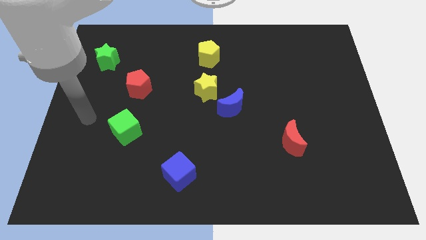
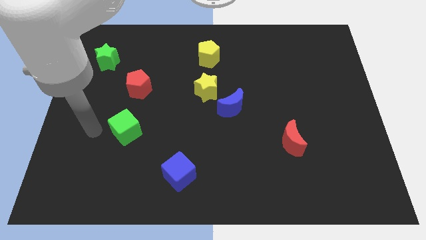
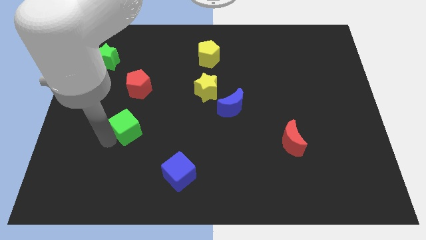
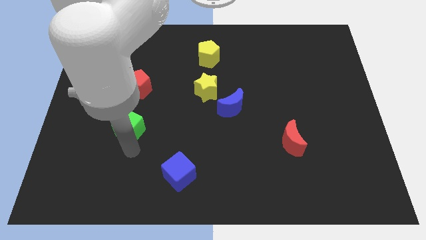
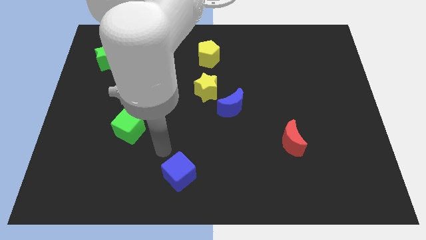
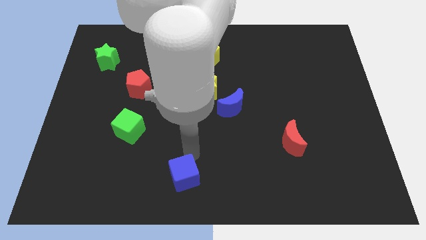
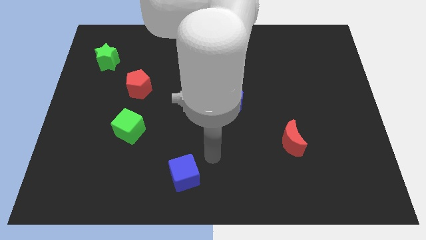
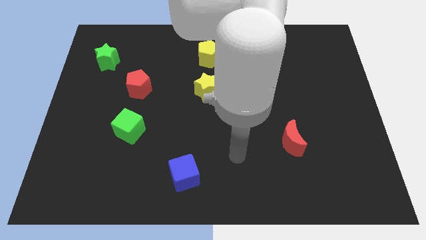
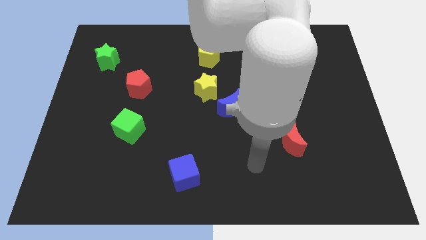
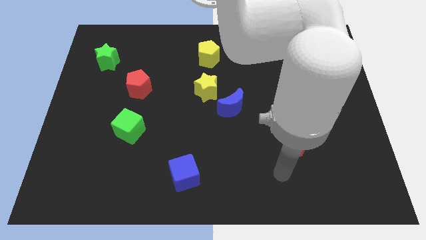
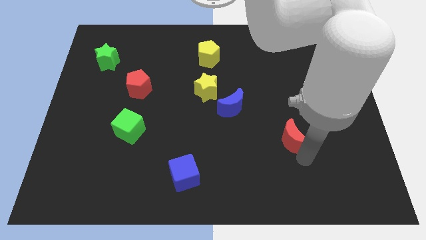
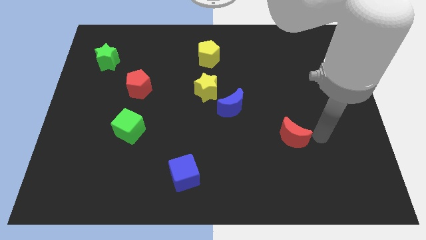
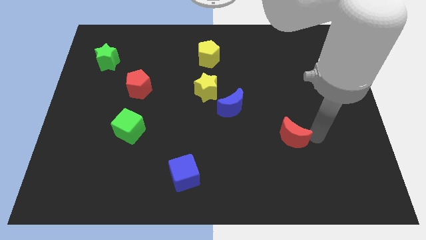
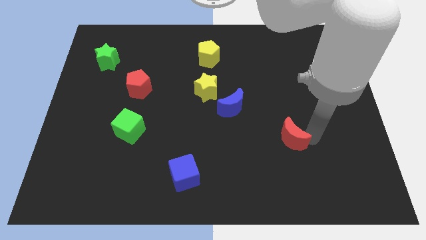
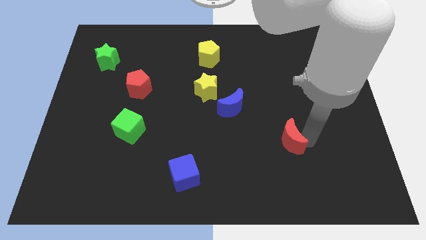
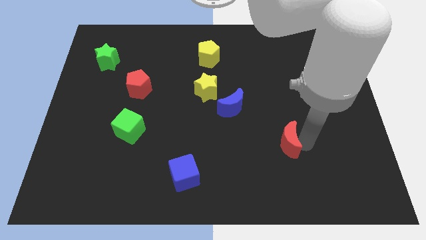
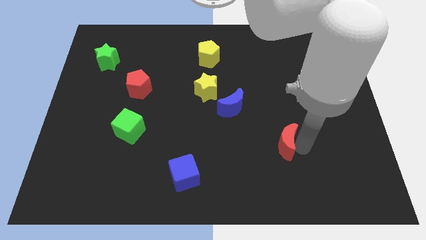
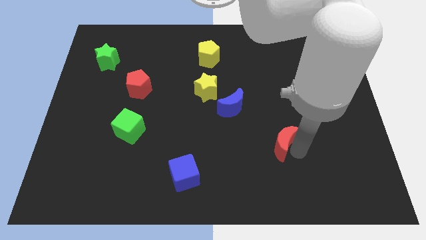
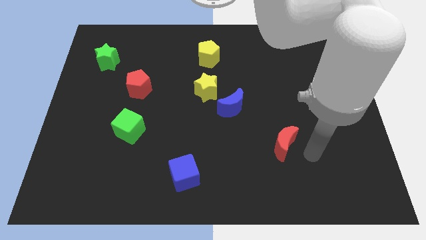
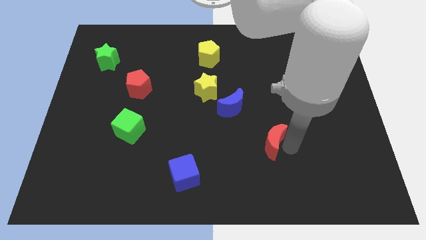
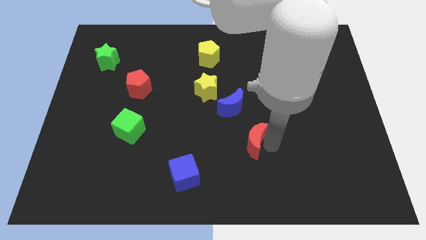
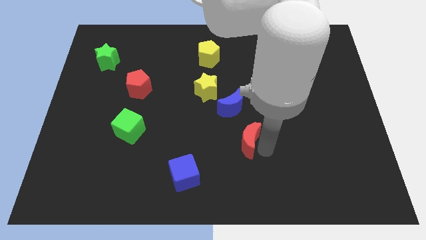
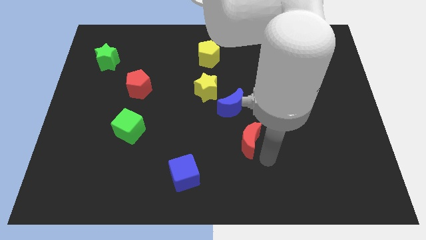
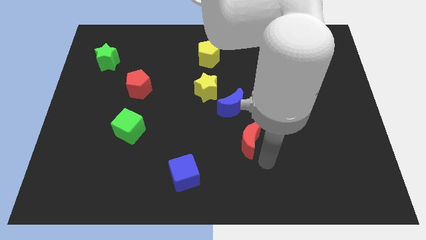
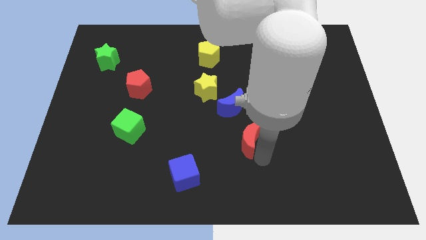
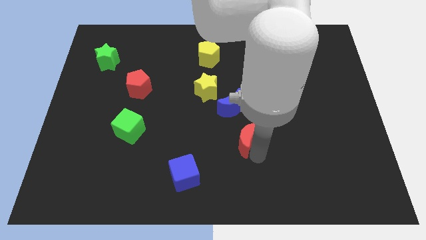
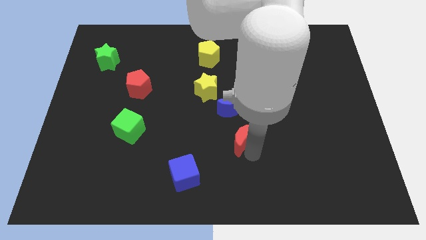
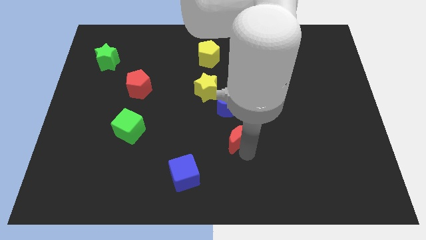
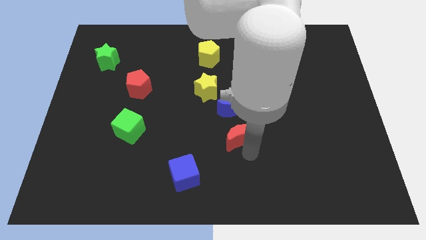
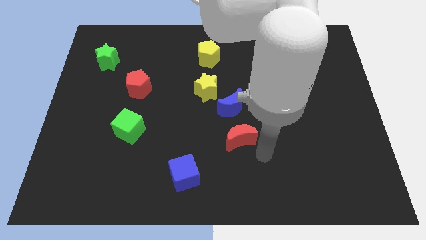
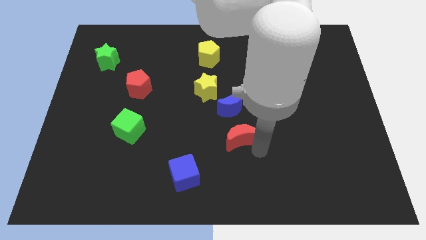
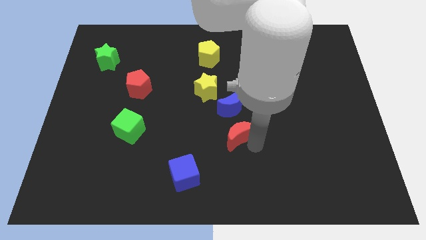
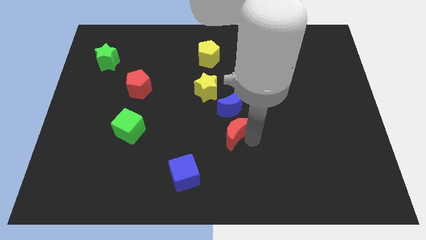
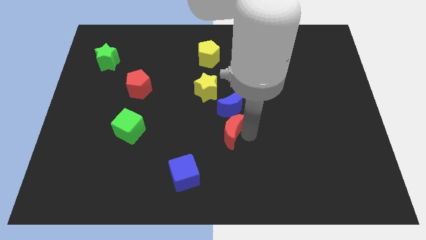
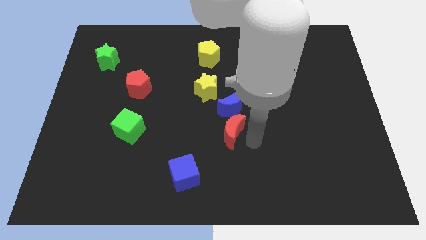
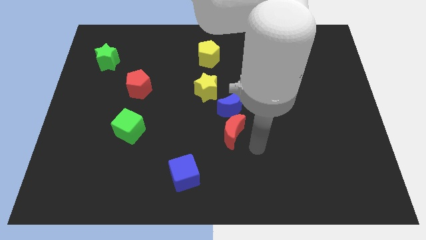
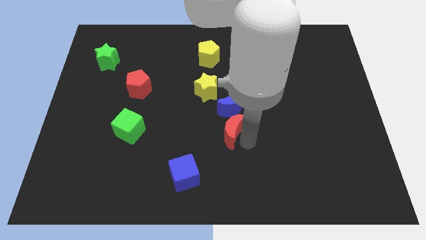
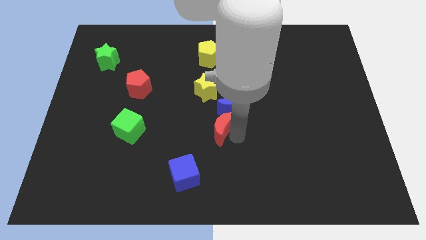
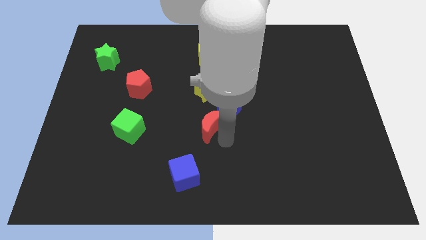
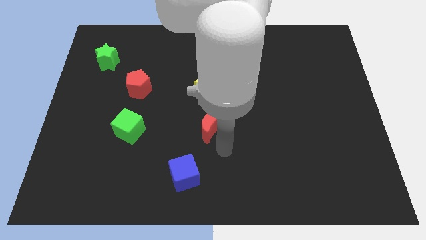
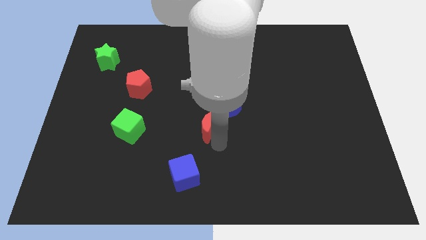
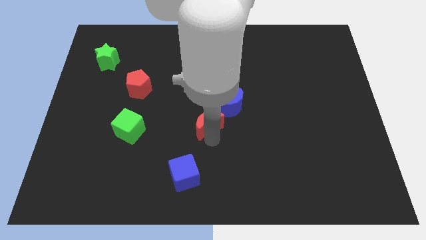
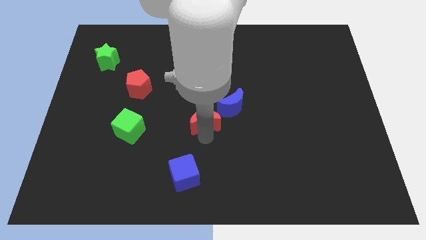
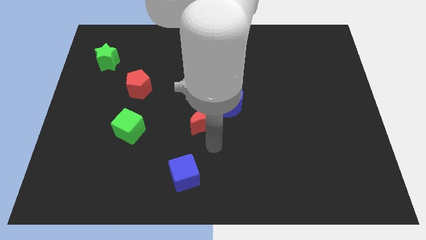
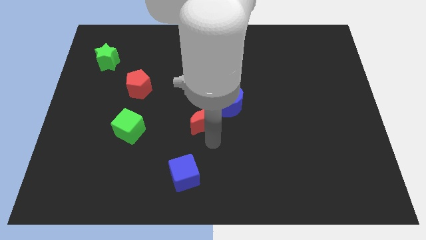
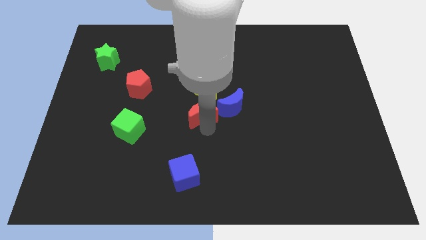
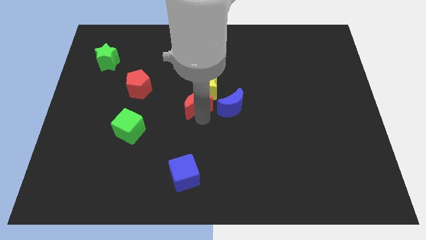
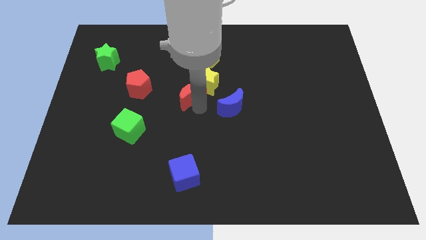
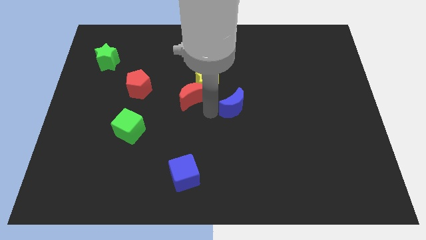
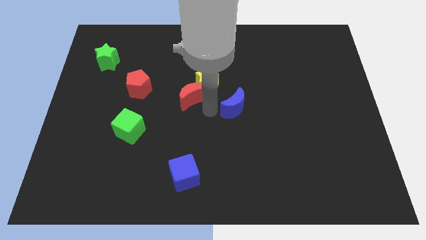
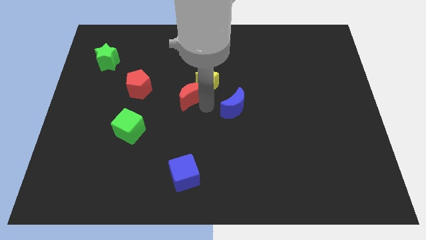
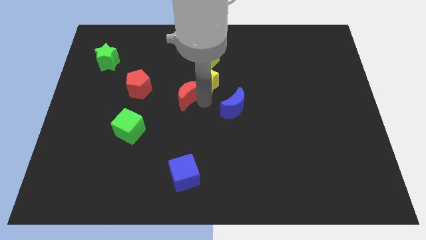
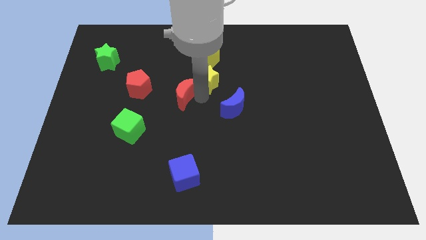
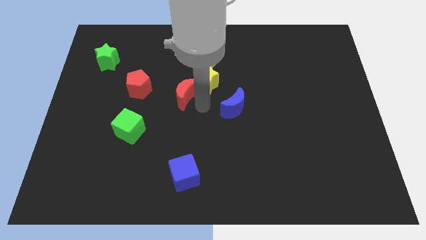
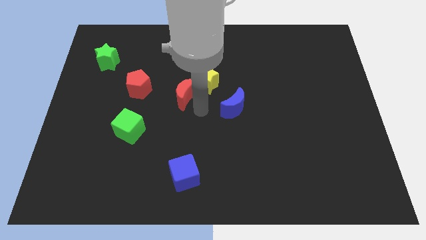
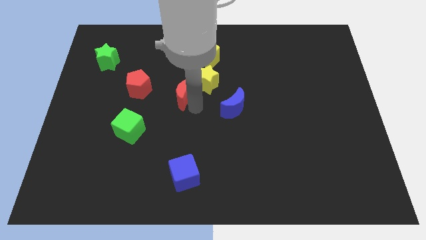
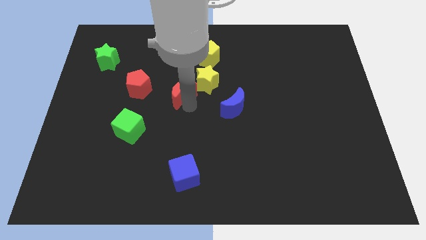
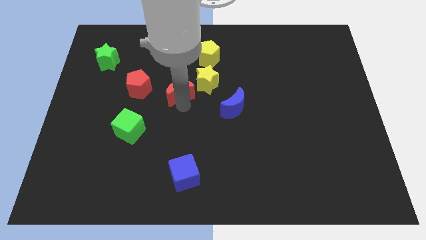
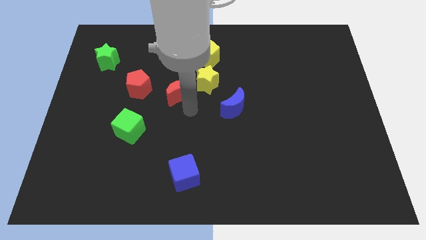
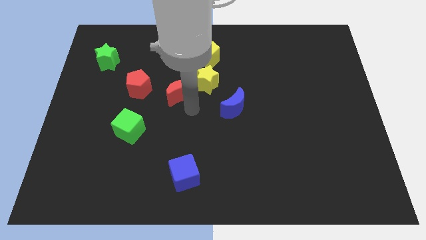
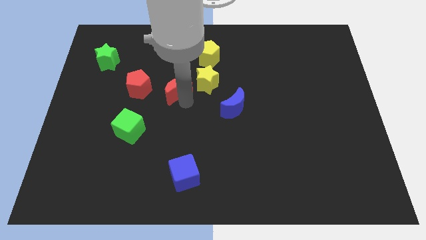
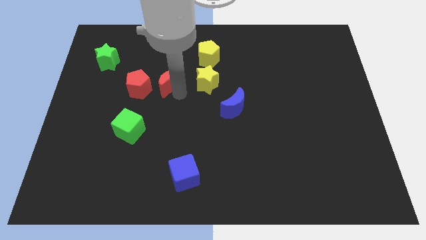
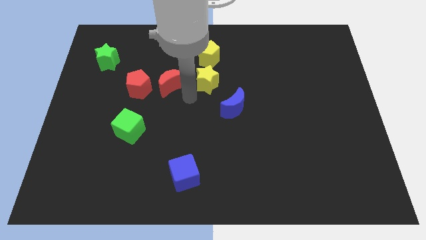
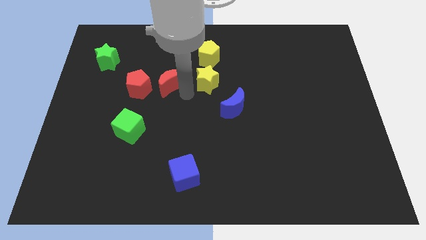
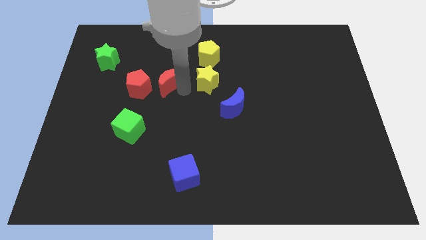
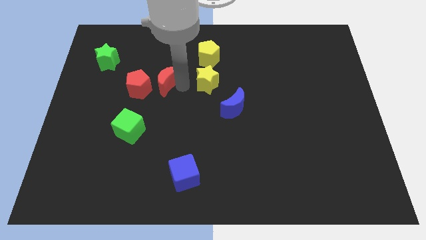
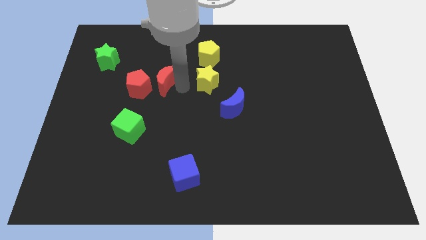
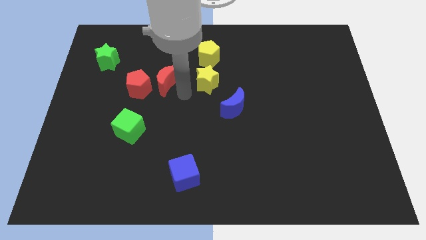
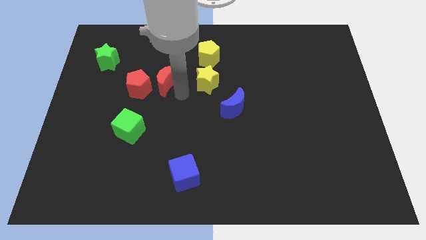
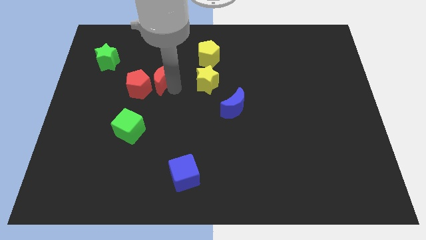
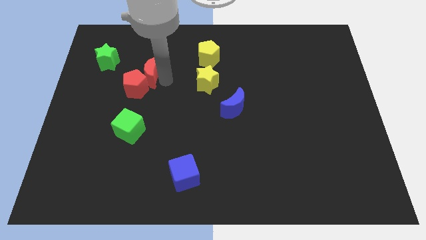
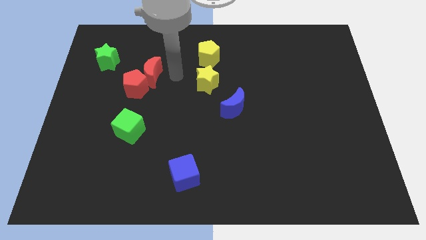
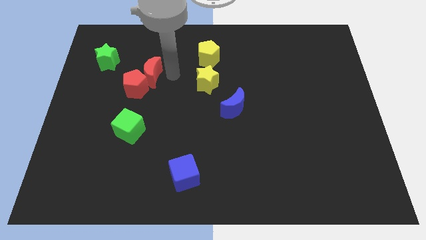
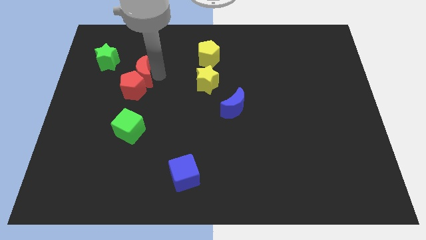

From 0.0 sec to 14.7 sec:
put the red moon to the bottom right of the green star
